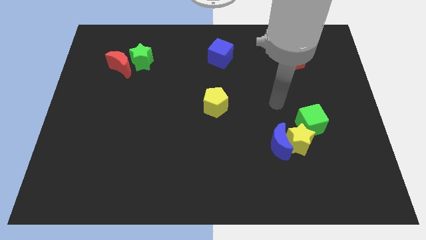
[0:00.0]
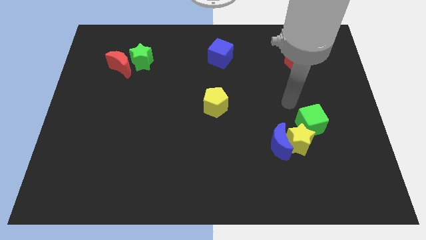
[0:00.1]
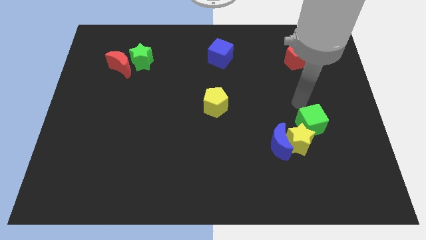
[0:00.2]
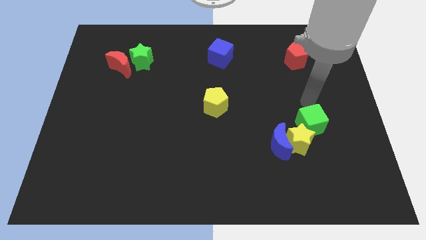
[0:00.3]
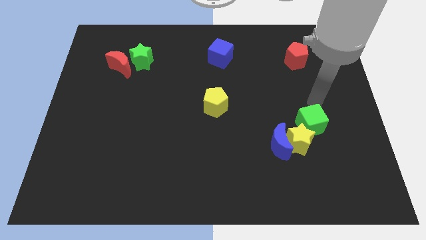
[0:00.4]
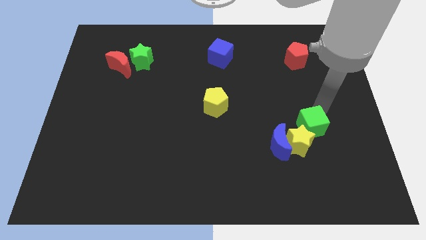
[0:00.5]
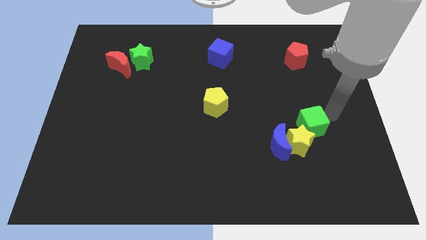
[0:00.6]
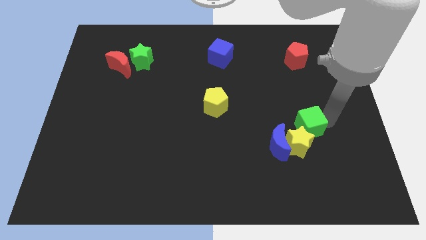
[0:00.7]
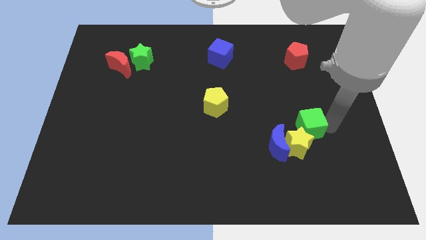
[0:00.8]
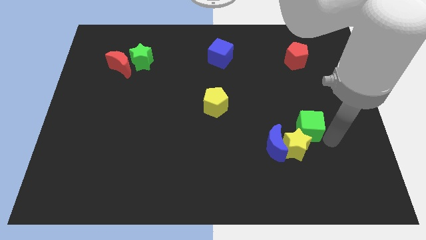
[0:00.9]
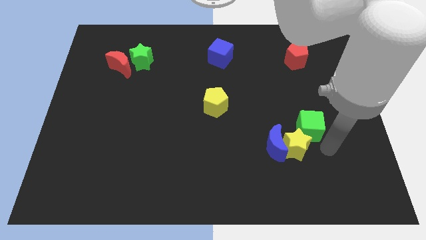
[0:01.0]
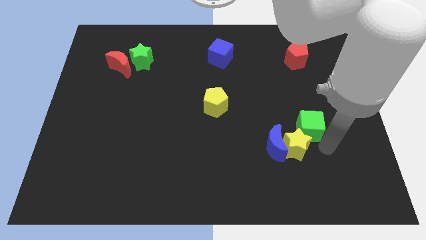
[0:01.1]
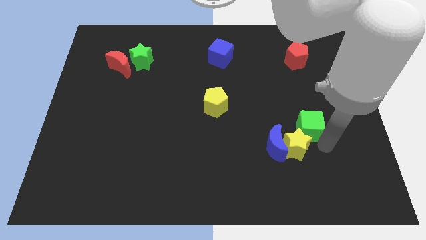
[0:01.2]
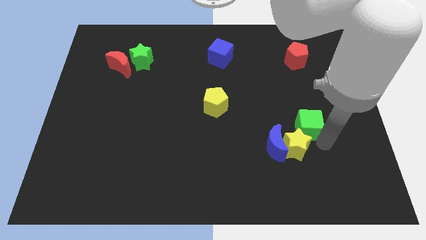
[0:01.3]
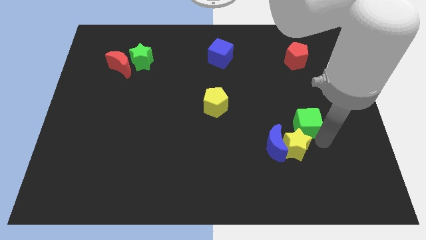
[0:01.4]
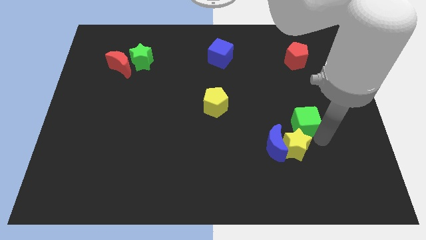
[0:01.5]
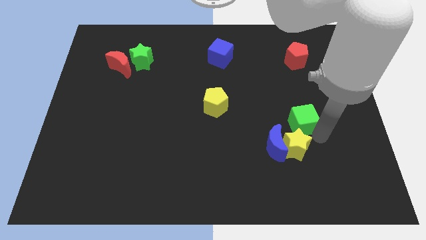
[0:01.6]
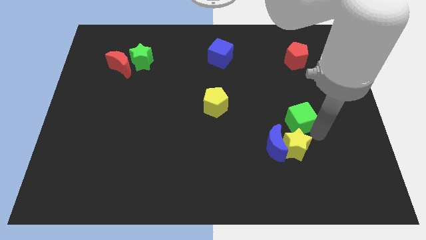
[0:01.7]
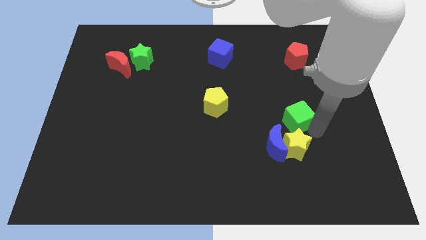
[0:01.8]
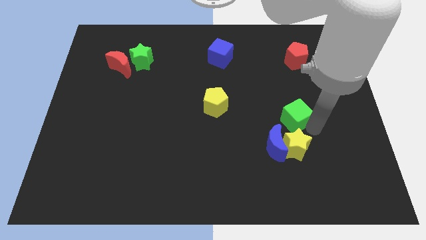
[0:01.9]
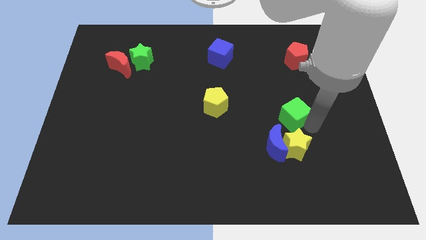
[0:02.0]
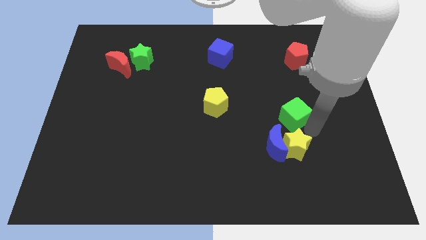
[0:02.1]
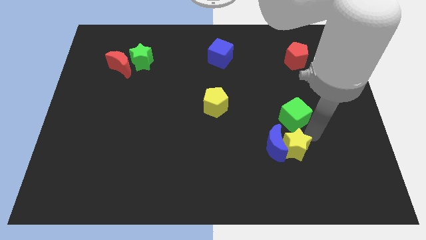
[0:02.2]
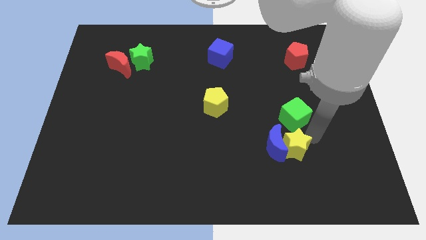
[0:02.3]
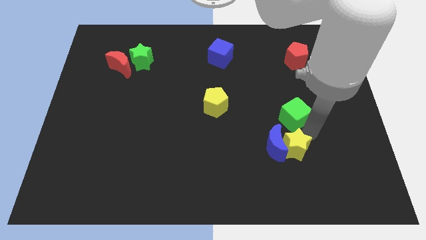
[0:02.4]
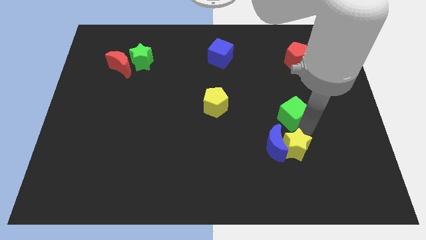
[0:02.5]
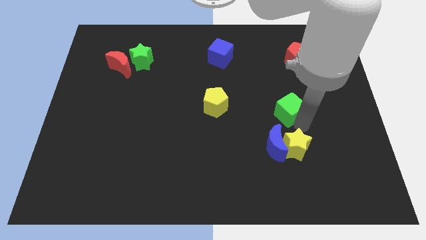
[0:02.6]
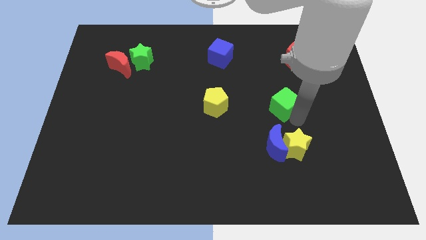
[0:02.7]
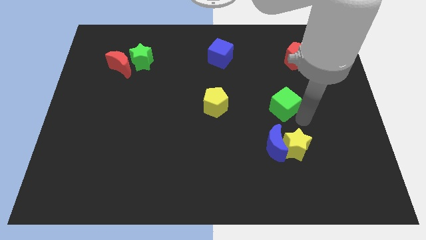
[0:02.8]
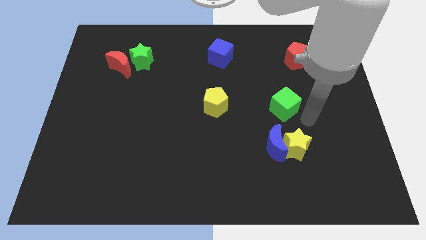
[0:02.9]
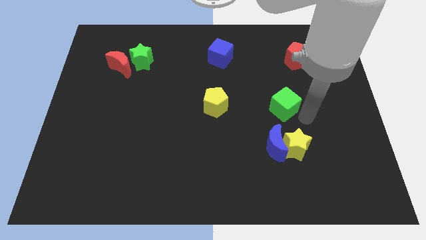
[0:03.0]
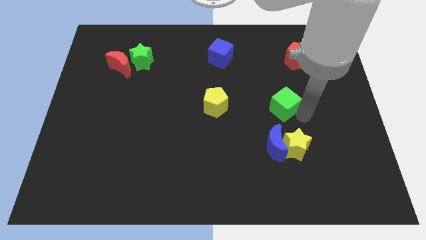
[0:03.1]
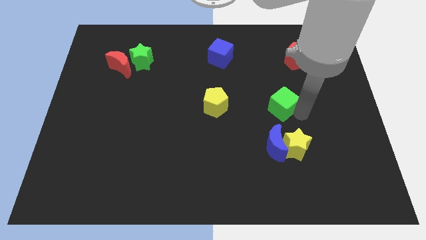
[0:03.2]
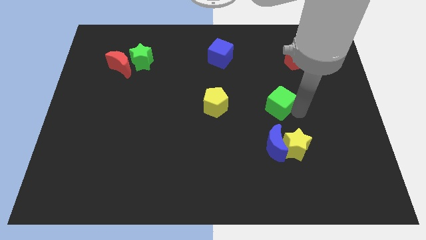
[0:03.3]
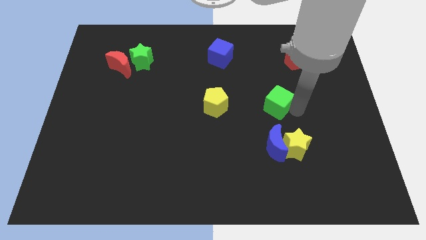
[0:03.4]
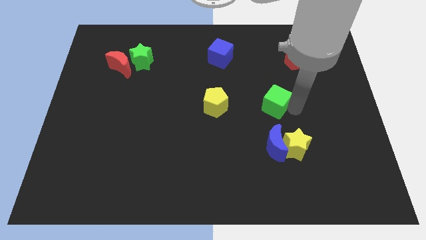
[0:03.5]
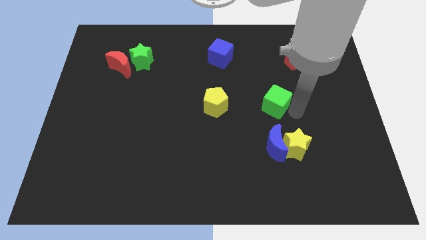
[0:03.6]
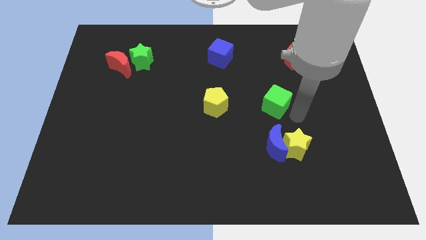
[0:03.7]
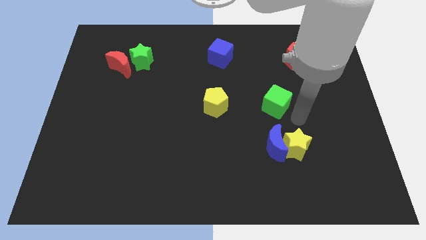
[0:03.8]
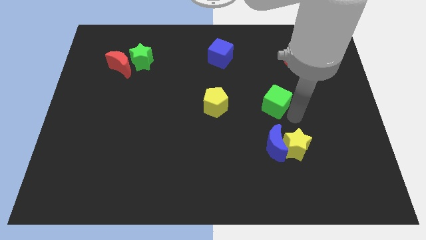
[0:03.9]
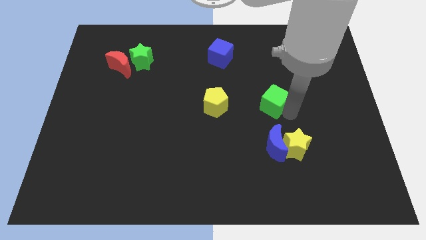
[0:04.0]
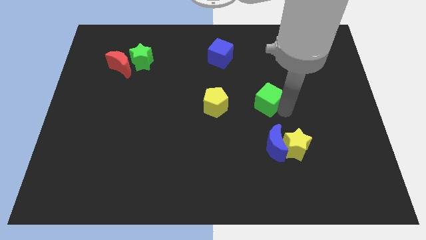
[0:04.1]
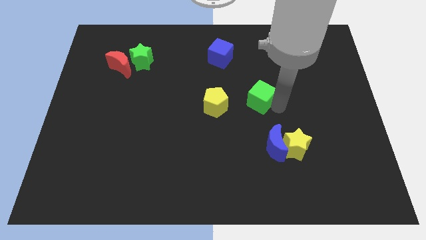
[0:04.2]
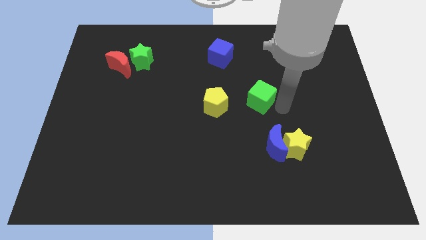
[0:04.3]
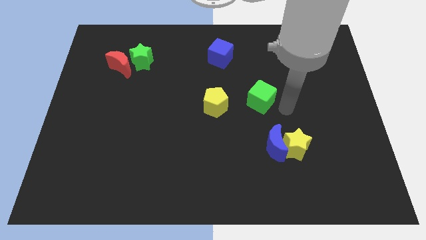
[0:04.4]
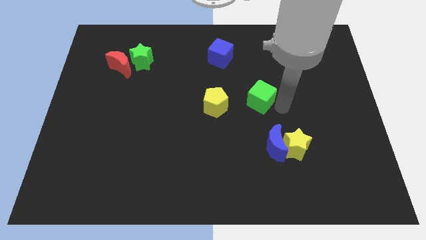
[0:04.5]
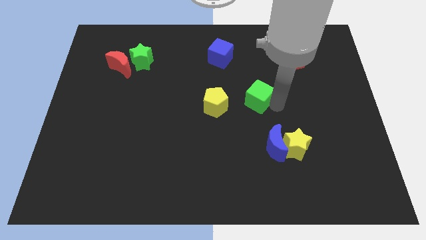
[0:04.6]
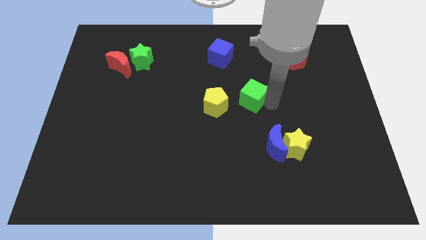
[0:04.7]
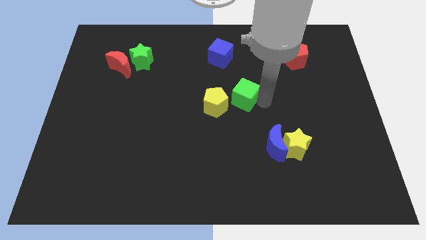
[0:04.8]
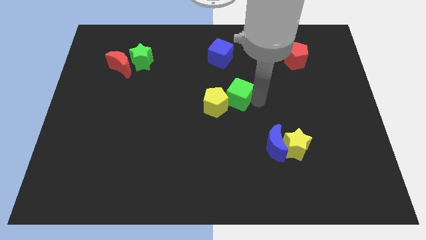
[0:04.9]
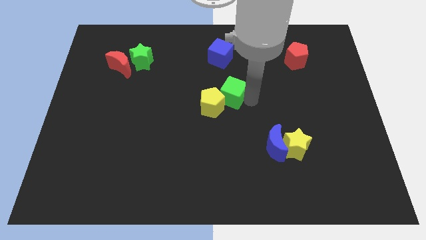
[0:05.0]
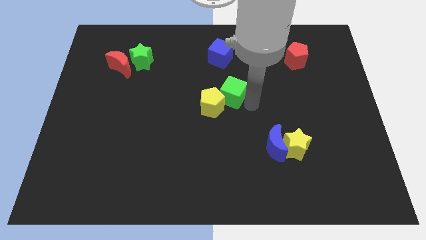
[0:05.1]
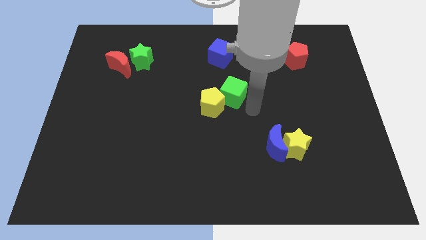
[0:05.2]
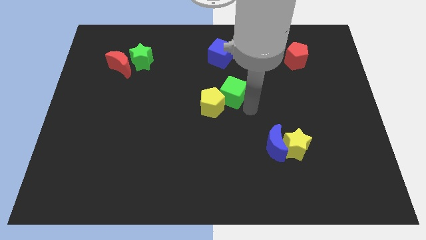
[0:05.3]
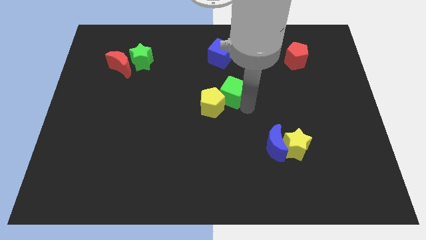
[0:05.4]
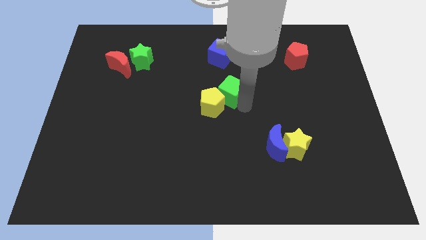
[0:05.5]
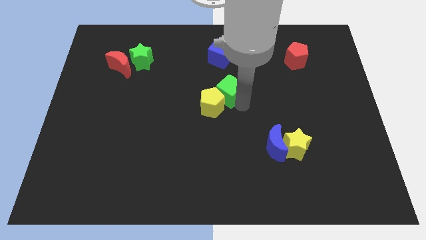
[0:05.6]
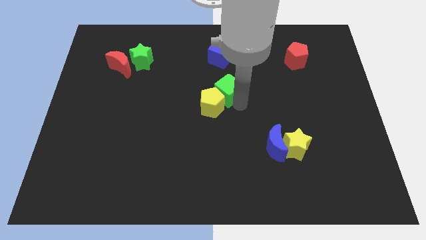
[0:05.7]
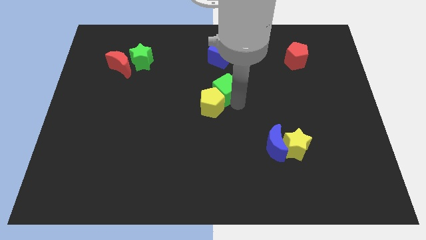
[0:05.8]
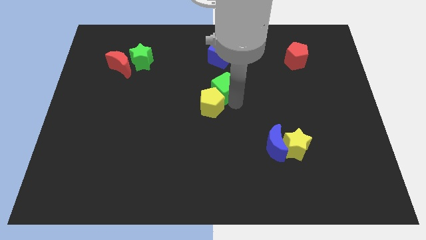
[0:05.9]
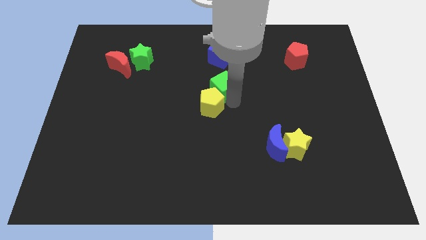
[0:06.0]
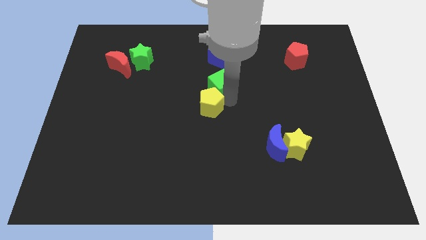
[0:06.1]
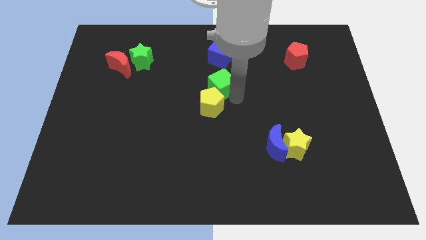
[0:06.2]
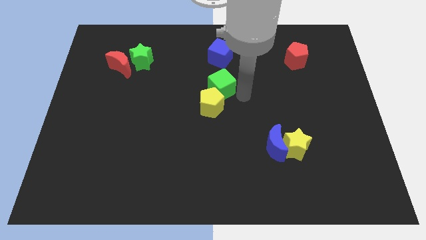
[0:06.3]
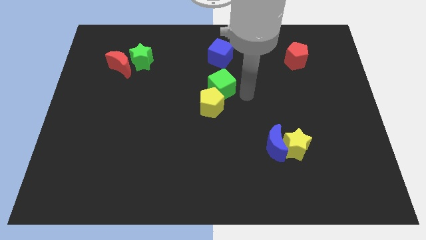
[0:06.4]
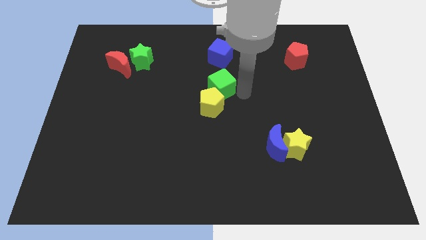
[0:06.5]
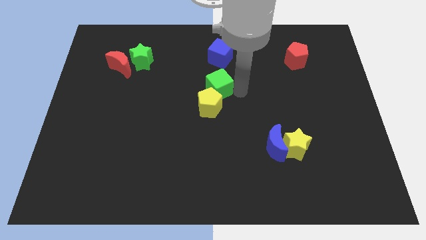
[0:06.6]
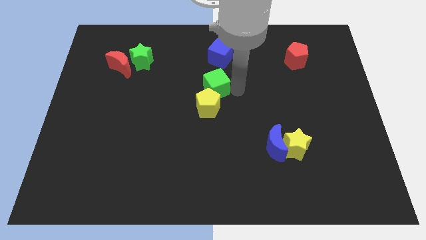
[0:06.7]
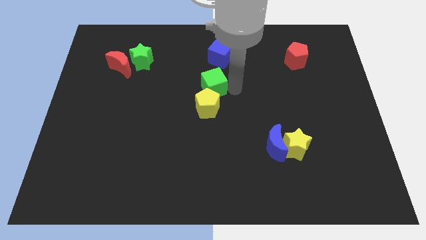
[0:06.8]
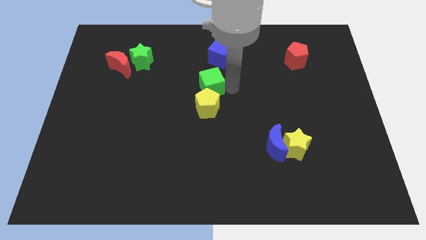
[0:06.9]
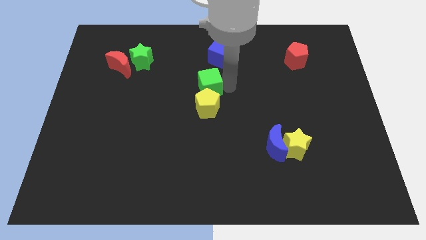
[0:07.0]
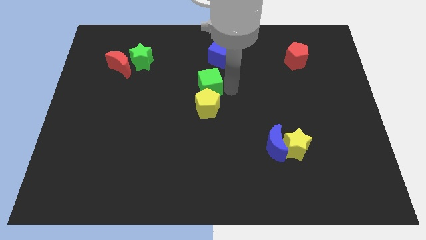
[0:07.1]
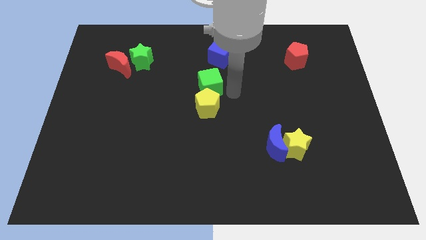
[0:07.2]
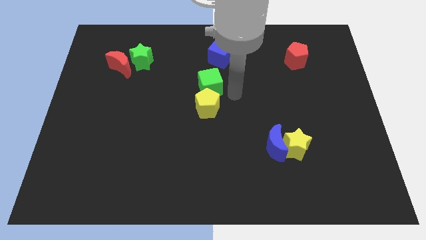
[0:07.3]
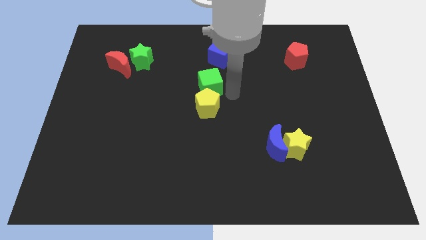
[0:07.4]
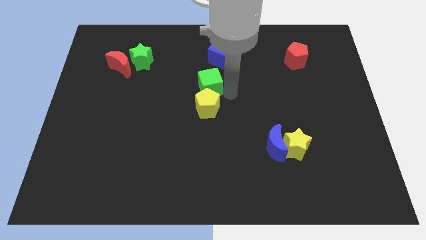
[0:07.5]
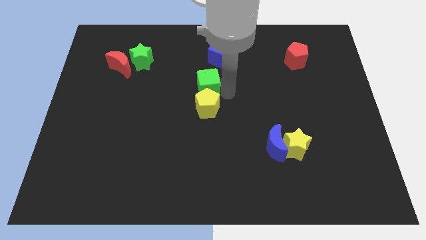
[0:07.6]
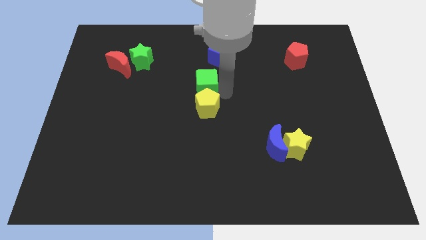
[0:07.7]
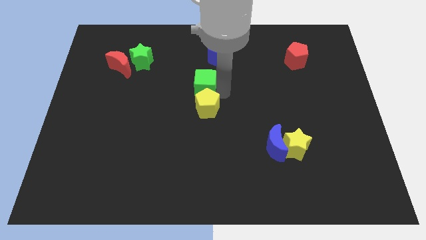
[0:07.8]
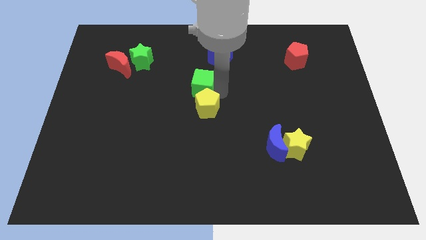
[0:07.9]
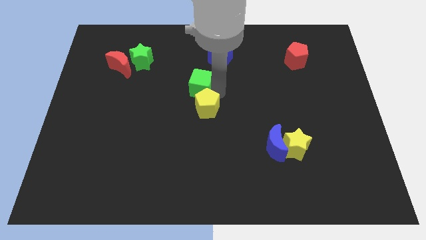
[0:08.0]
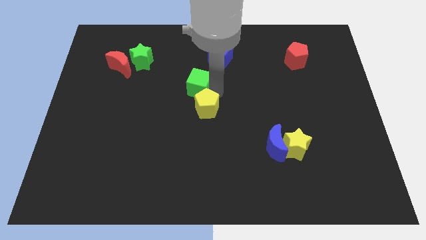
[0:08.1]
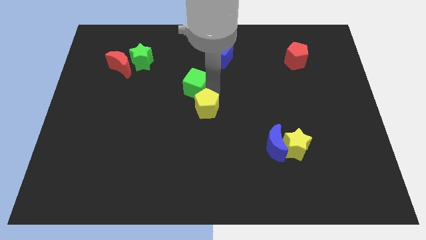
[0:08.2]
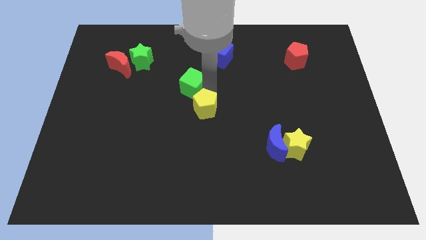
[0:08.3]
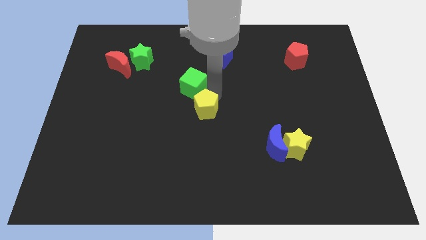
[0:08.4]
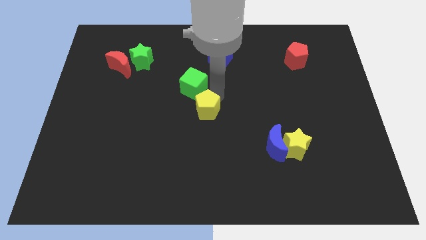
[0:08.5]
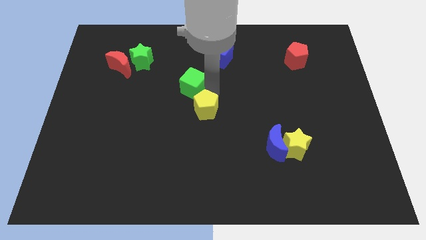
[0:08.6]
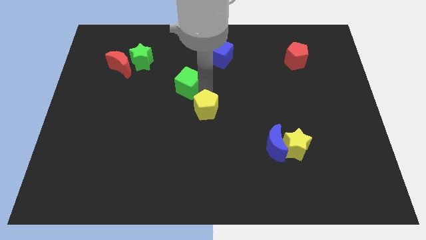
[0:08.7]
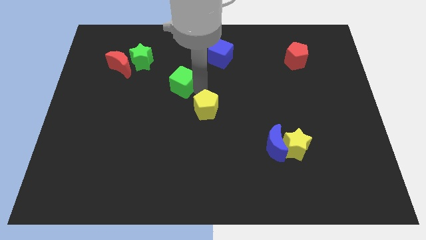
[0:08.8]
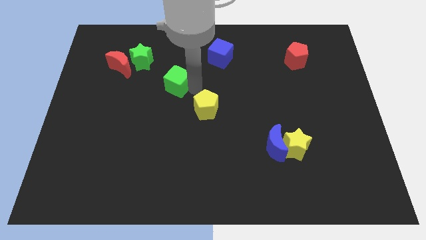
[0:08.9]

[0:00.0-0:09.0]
push the green cube to the bottom right of the green star
